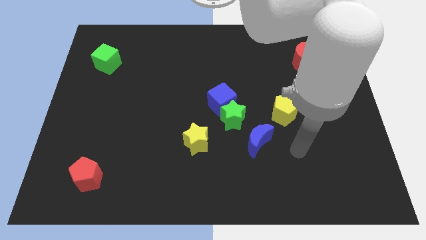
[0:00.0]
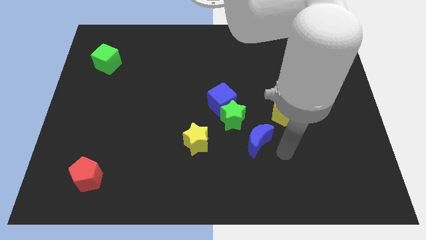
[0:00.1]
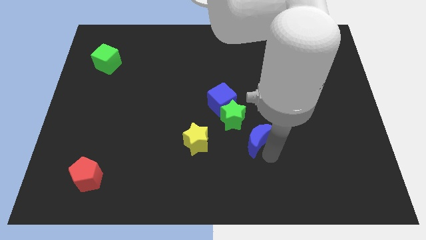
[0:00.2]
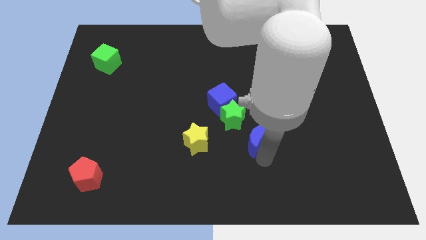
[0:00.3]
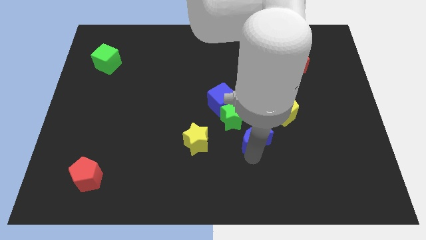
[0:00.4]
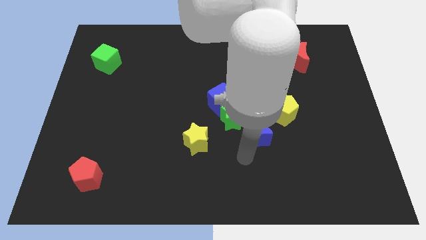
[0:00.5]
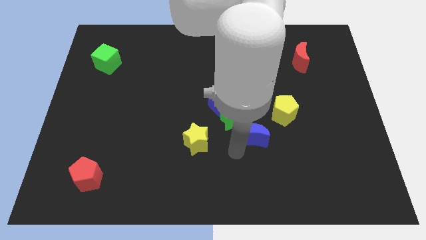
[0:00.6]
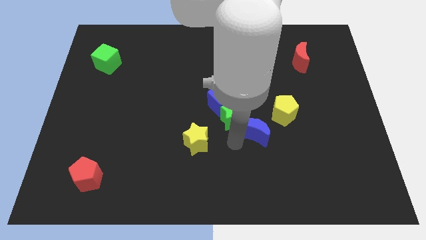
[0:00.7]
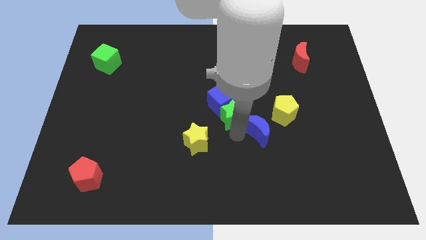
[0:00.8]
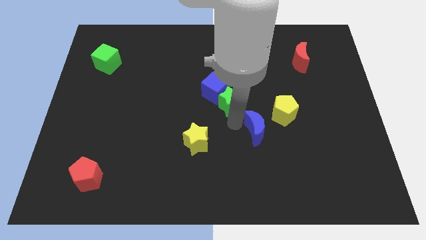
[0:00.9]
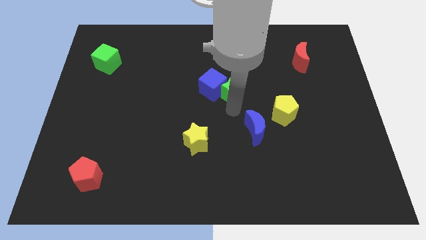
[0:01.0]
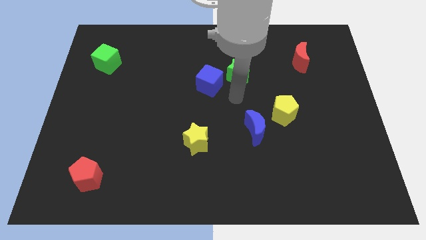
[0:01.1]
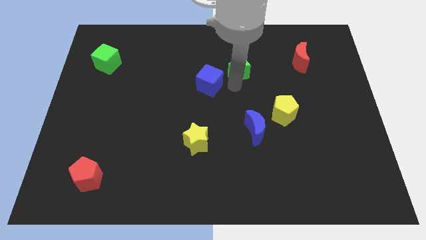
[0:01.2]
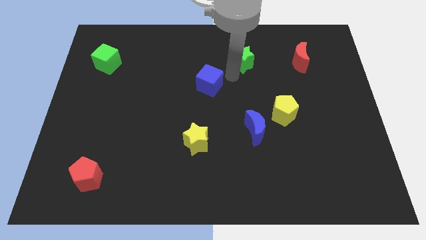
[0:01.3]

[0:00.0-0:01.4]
pull the blue cube apart from the green star

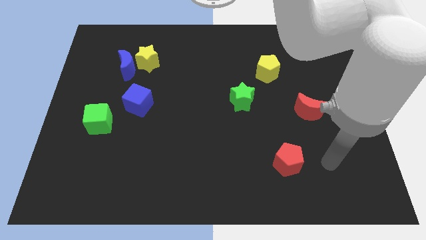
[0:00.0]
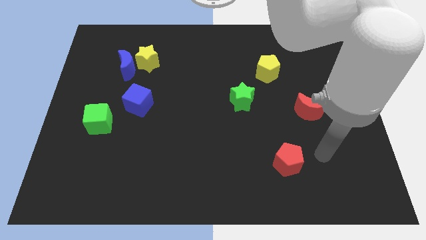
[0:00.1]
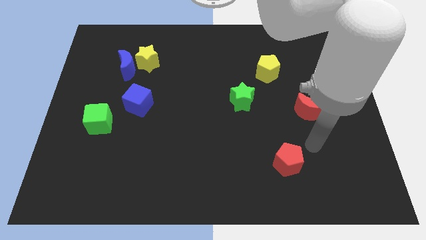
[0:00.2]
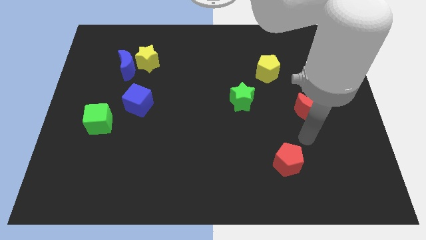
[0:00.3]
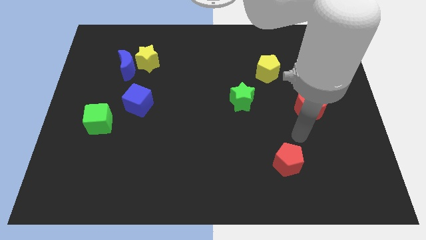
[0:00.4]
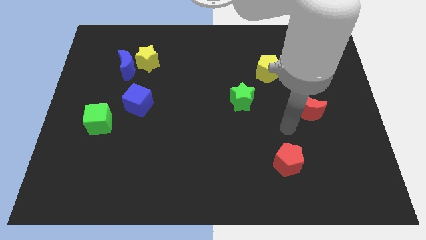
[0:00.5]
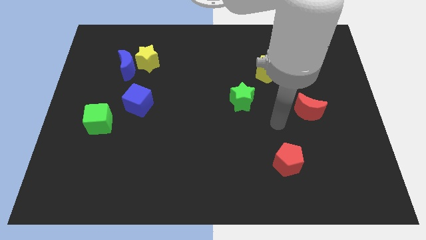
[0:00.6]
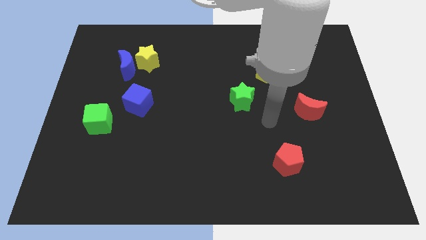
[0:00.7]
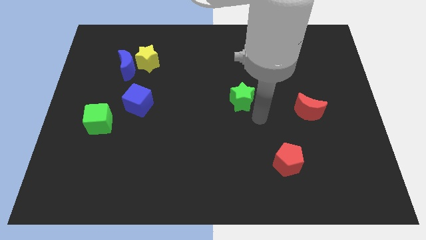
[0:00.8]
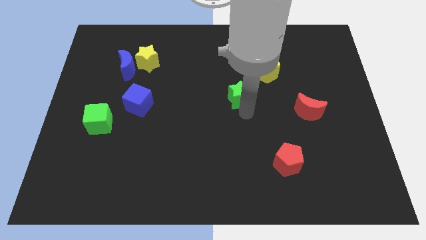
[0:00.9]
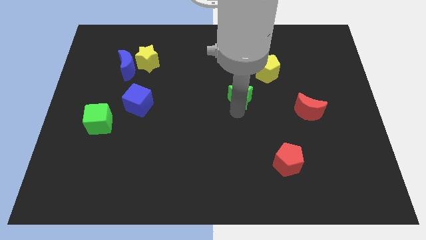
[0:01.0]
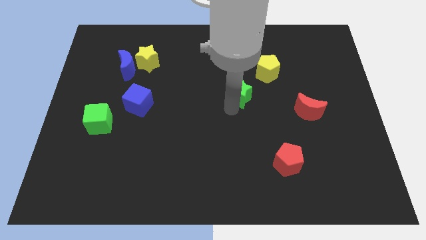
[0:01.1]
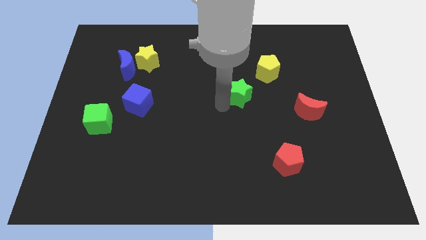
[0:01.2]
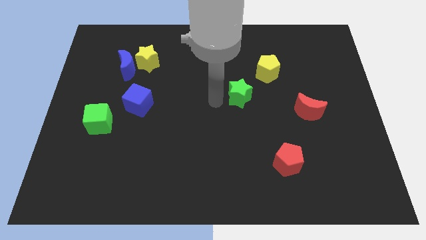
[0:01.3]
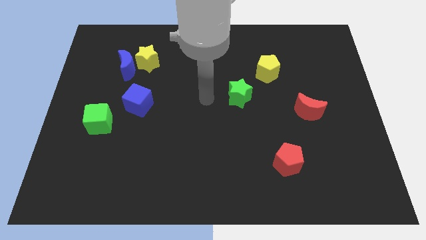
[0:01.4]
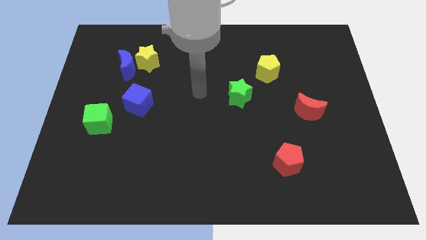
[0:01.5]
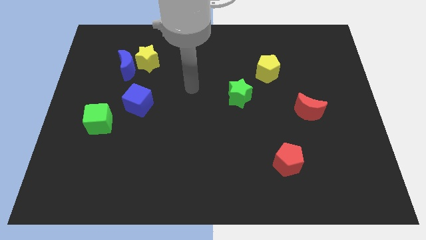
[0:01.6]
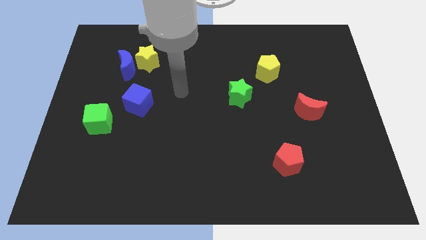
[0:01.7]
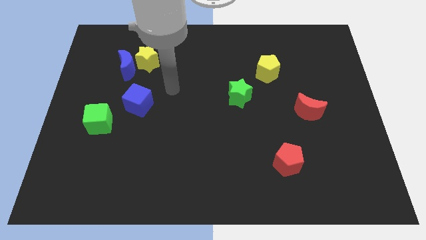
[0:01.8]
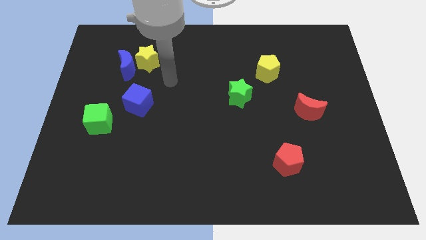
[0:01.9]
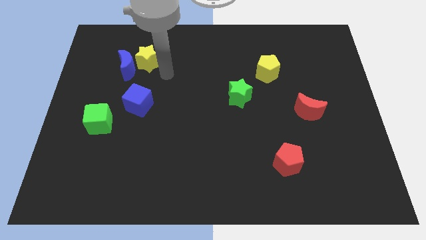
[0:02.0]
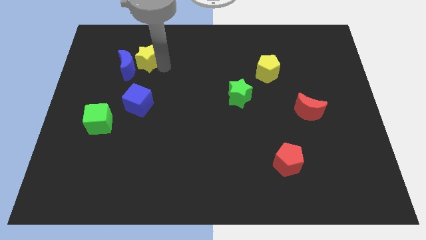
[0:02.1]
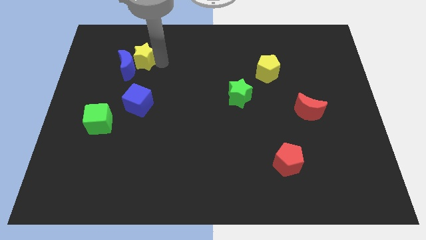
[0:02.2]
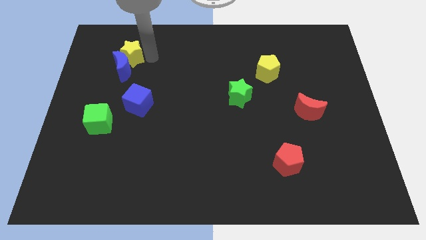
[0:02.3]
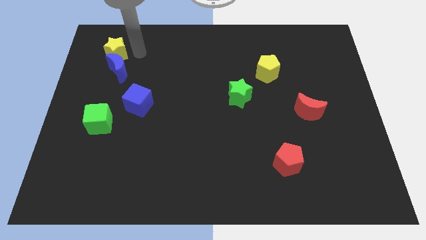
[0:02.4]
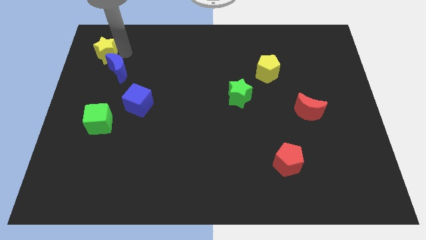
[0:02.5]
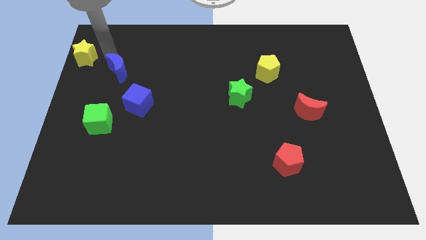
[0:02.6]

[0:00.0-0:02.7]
separate the blue moon from the yellow star

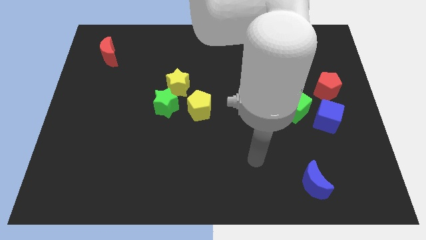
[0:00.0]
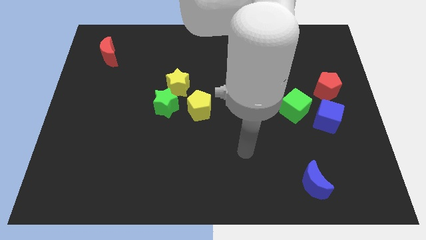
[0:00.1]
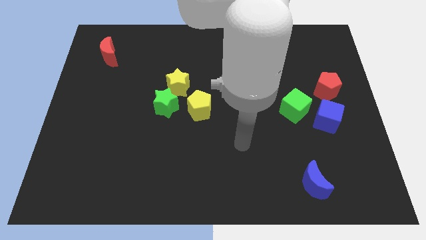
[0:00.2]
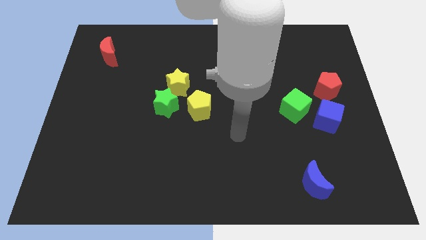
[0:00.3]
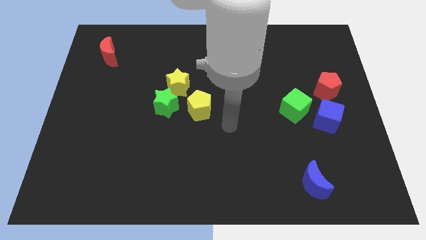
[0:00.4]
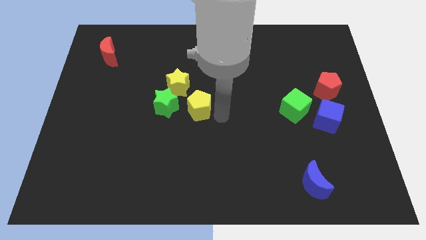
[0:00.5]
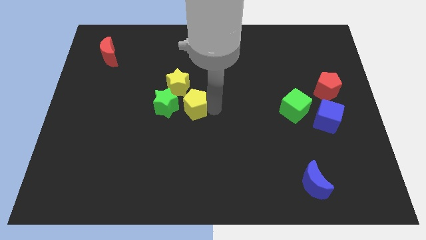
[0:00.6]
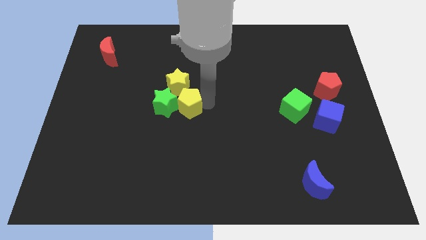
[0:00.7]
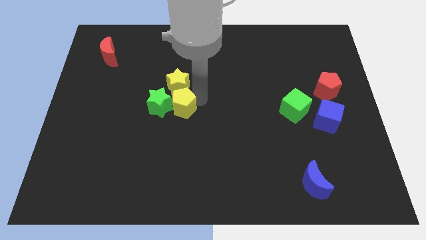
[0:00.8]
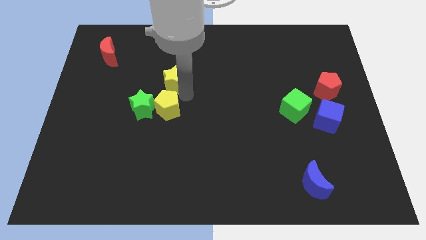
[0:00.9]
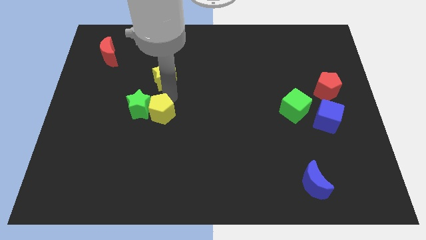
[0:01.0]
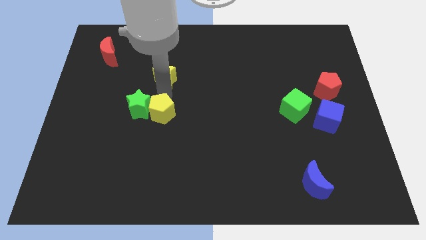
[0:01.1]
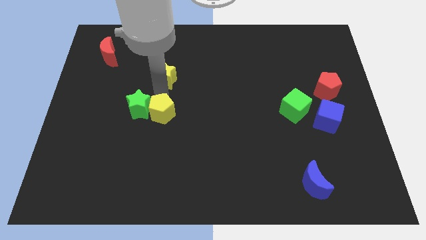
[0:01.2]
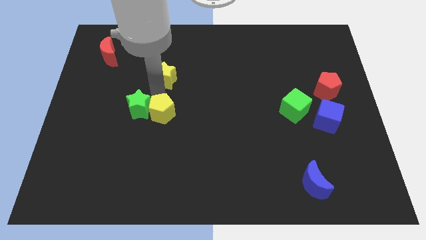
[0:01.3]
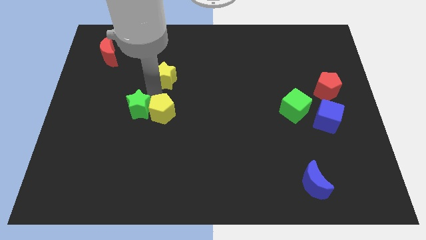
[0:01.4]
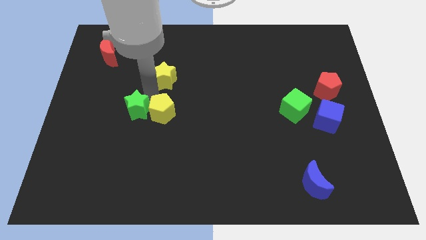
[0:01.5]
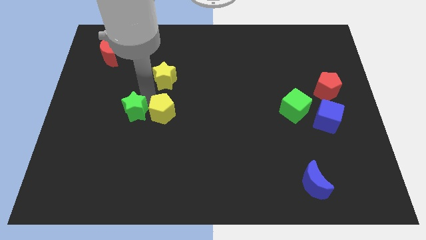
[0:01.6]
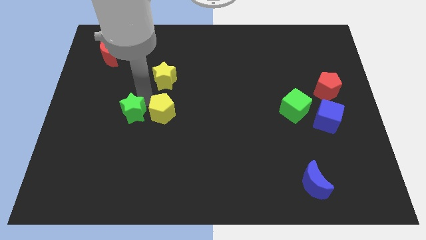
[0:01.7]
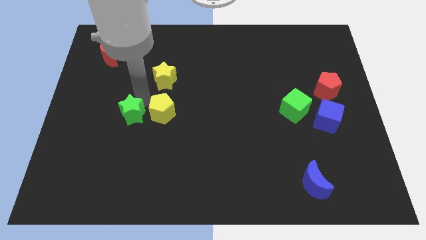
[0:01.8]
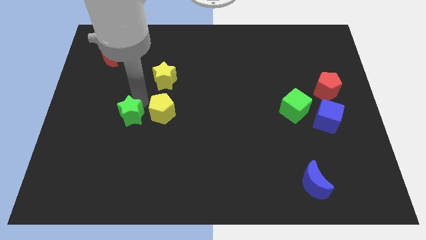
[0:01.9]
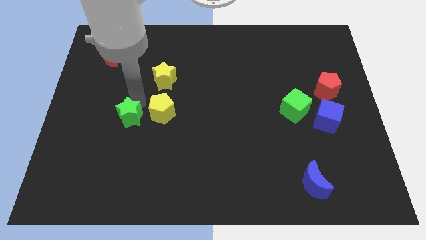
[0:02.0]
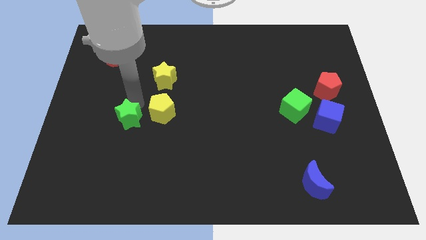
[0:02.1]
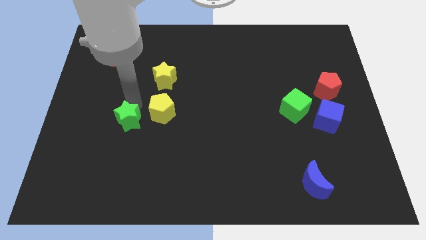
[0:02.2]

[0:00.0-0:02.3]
separate the green star from the yellow star and yellow pentagon

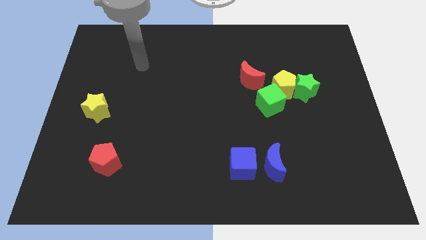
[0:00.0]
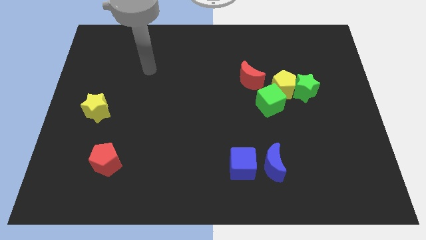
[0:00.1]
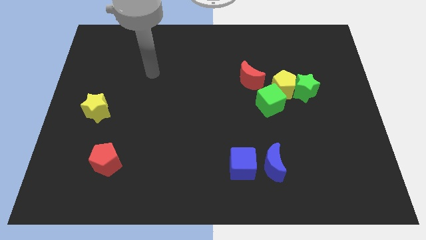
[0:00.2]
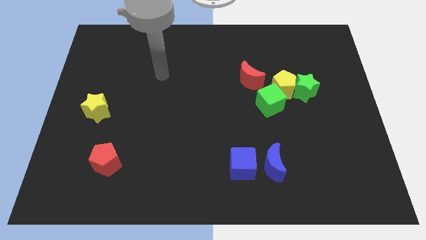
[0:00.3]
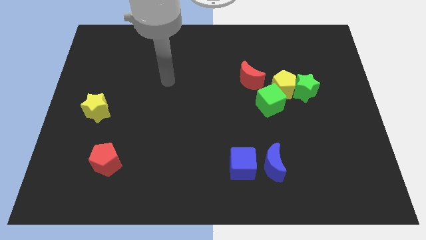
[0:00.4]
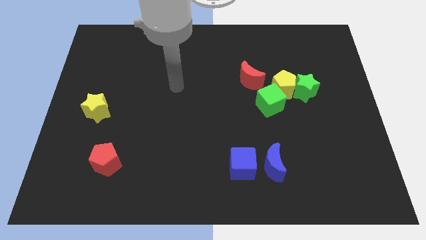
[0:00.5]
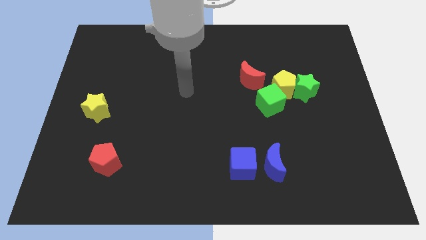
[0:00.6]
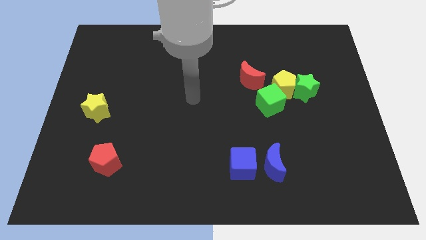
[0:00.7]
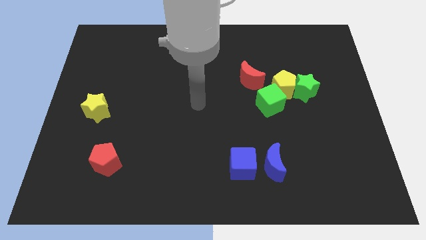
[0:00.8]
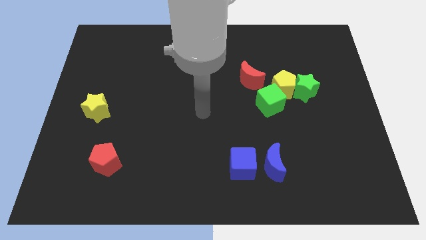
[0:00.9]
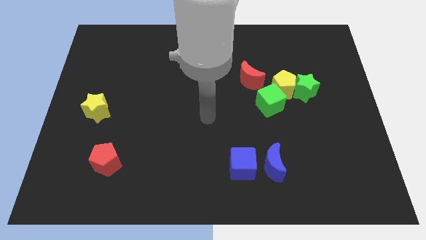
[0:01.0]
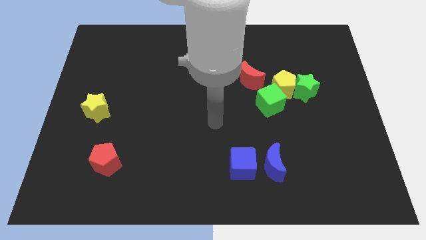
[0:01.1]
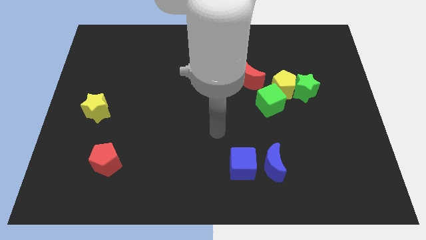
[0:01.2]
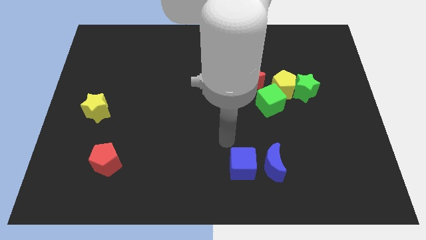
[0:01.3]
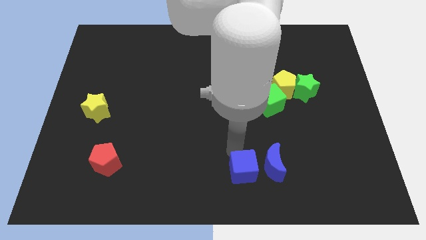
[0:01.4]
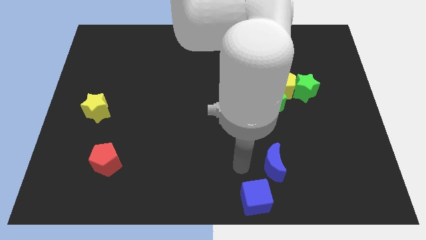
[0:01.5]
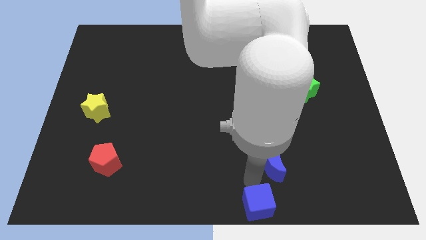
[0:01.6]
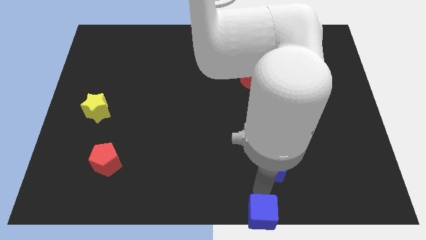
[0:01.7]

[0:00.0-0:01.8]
separate the blue moon from the blue cube

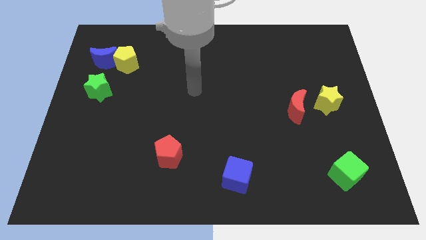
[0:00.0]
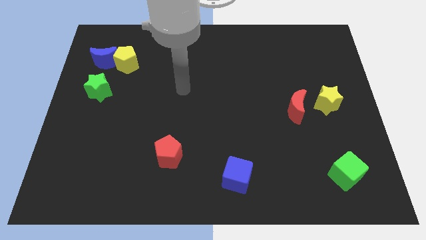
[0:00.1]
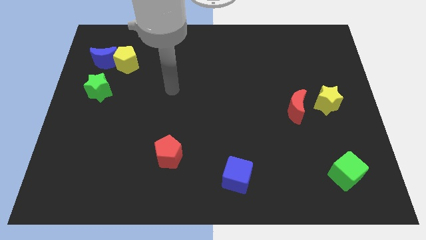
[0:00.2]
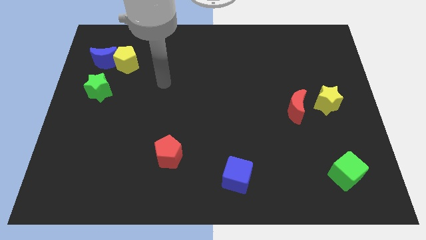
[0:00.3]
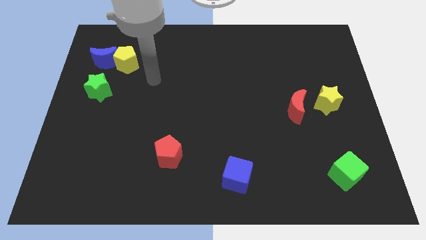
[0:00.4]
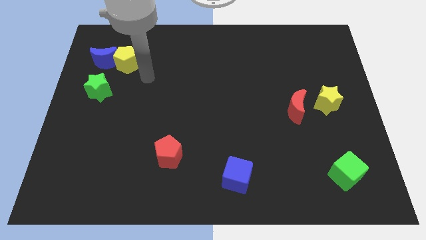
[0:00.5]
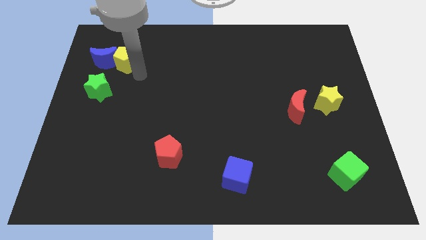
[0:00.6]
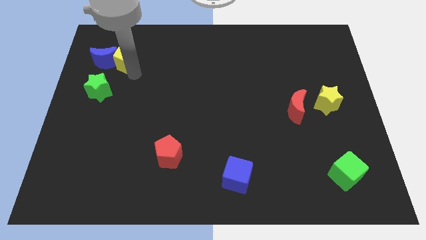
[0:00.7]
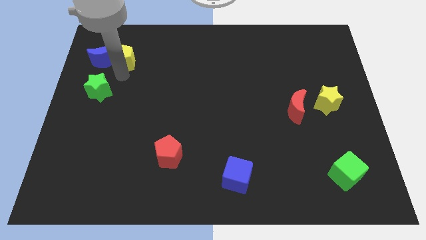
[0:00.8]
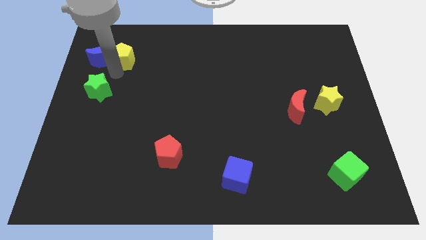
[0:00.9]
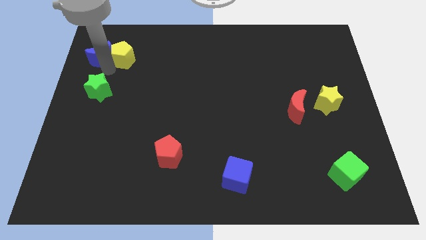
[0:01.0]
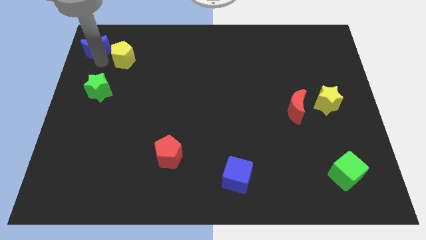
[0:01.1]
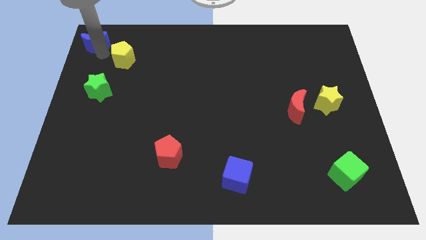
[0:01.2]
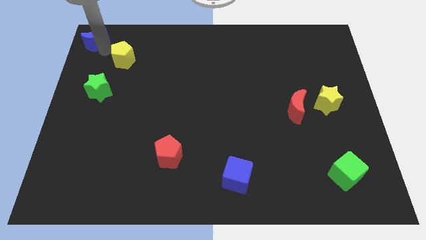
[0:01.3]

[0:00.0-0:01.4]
pull the yellow pentagon apart from the blue moon
